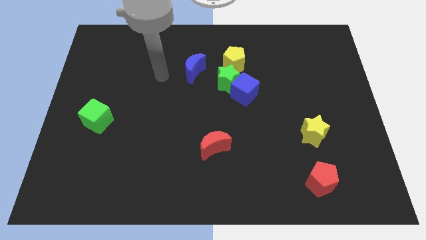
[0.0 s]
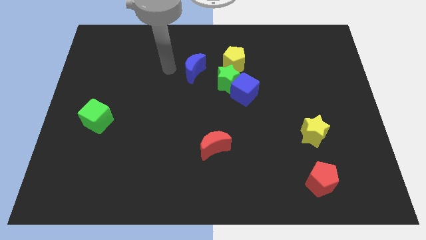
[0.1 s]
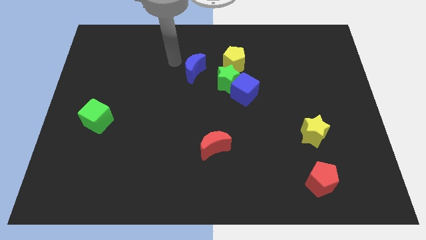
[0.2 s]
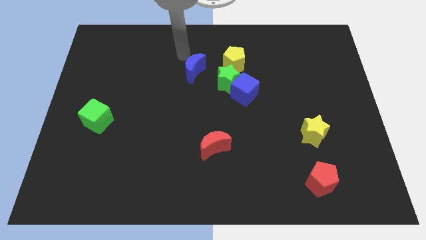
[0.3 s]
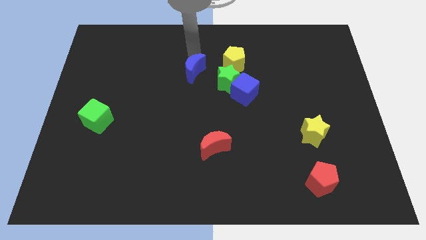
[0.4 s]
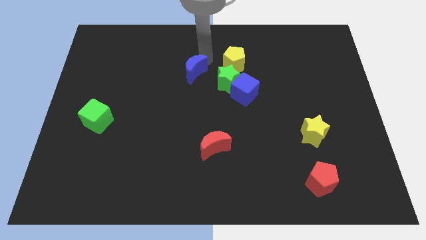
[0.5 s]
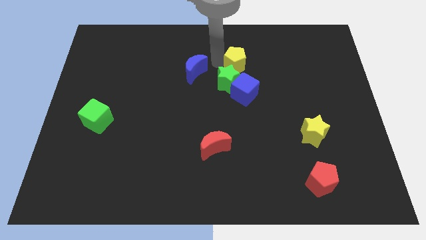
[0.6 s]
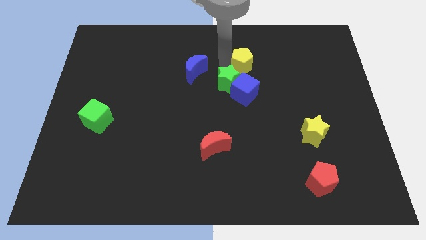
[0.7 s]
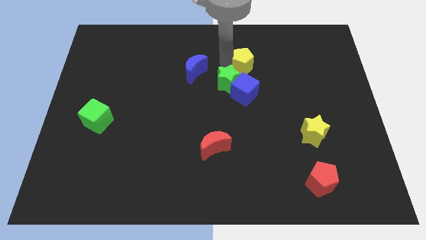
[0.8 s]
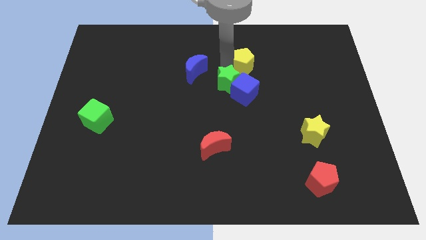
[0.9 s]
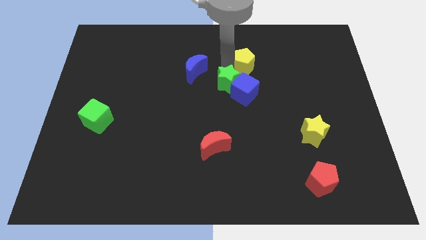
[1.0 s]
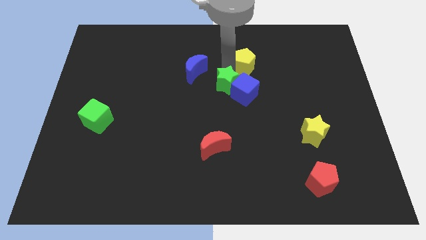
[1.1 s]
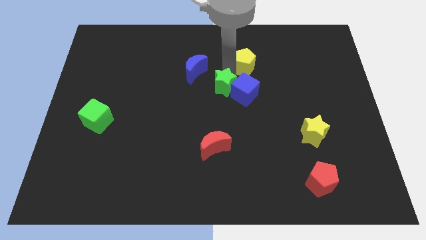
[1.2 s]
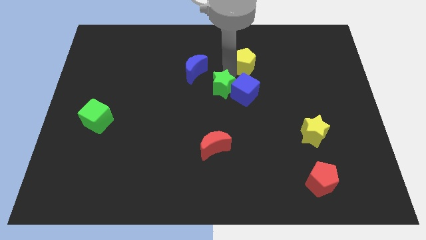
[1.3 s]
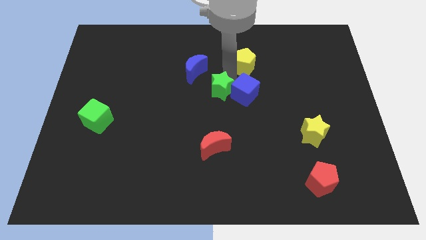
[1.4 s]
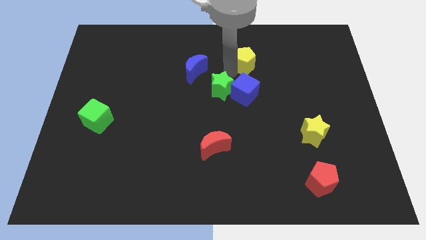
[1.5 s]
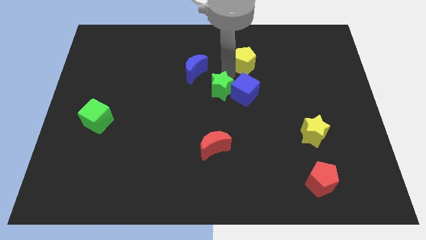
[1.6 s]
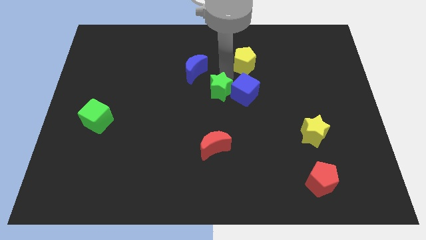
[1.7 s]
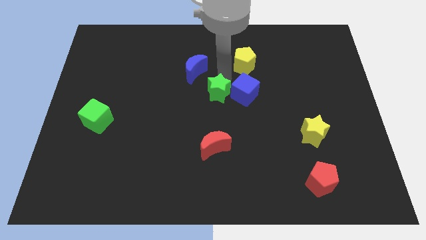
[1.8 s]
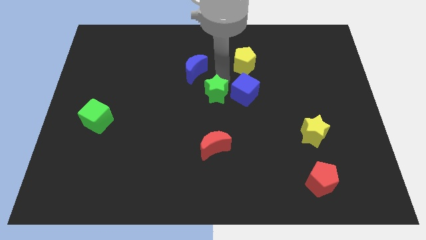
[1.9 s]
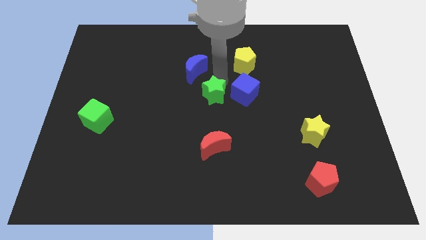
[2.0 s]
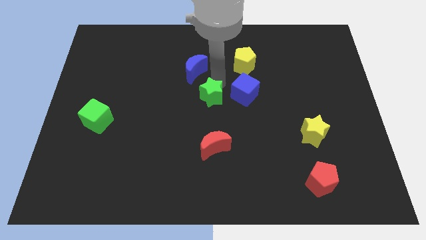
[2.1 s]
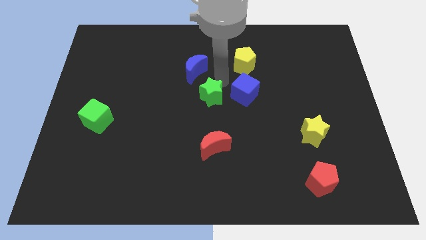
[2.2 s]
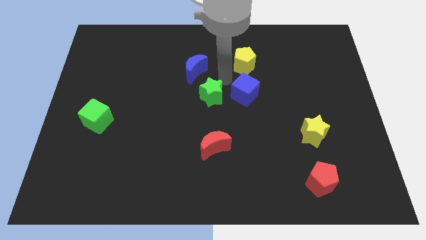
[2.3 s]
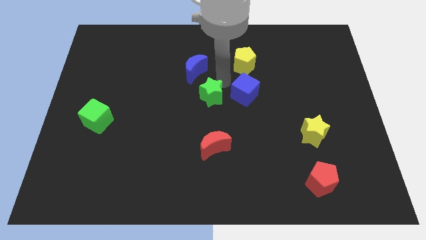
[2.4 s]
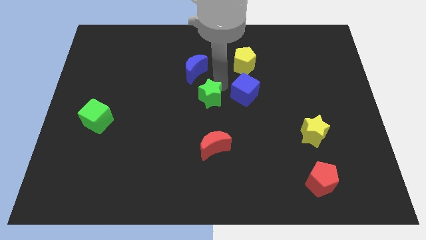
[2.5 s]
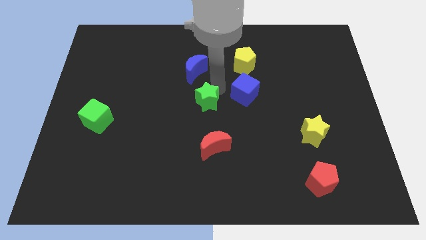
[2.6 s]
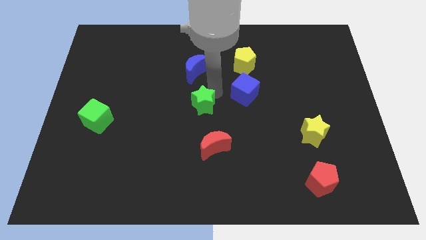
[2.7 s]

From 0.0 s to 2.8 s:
separate the green star from the clump

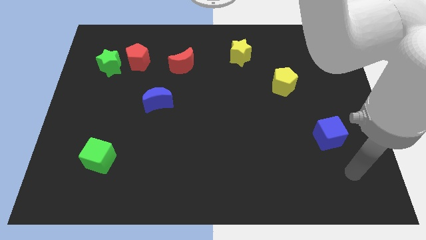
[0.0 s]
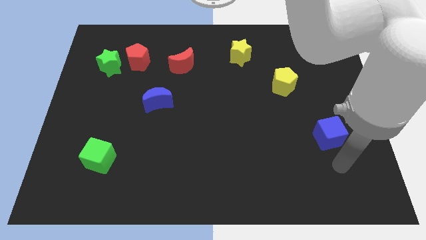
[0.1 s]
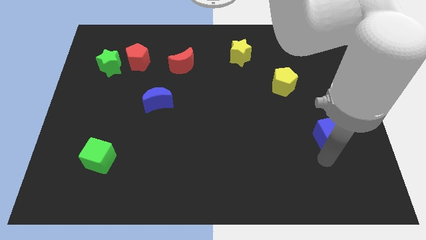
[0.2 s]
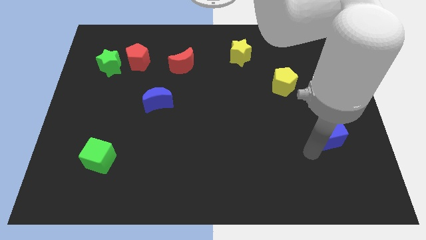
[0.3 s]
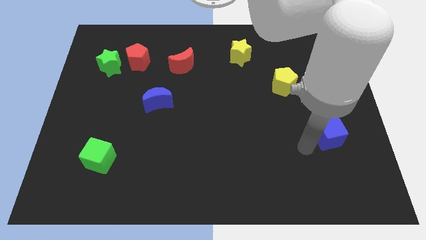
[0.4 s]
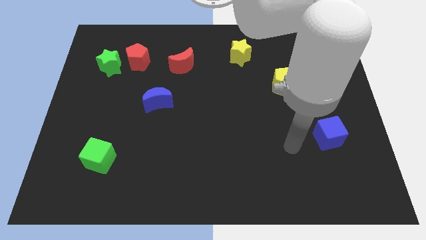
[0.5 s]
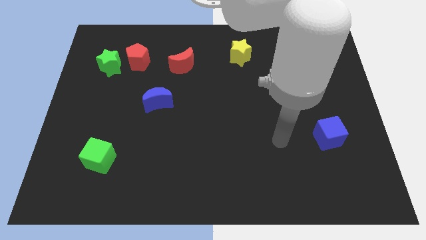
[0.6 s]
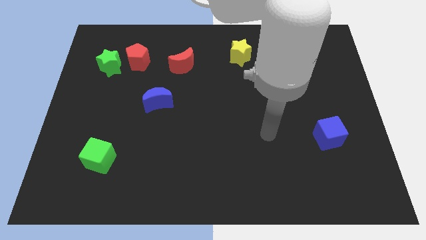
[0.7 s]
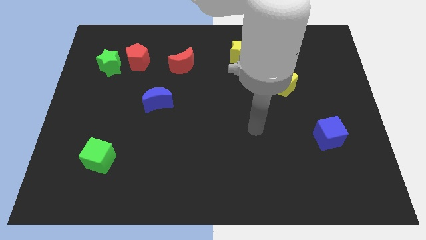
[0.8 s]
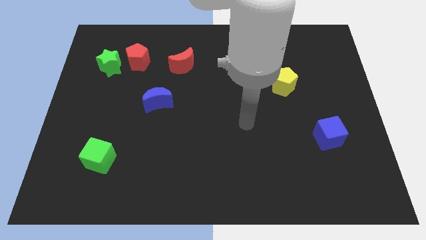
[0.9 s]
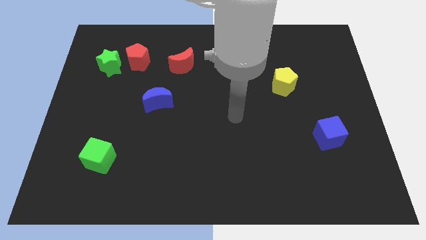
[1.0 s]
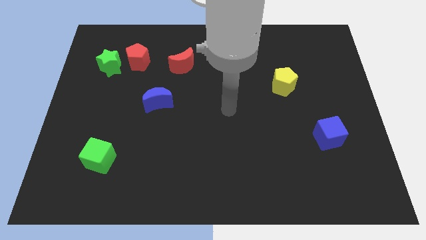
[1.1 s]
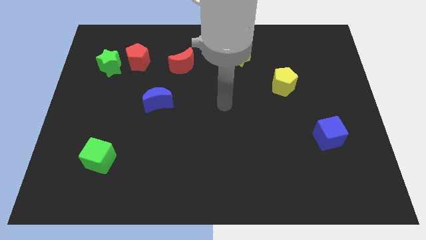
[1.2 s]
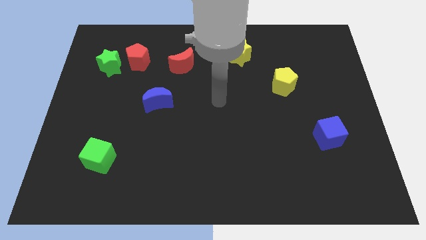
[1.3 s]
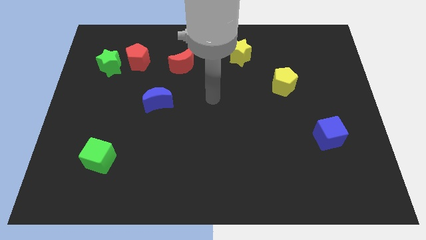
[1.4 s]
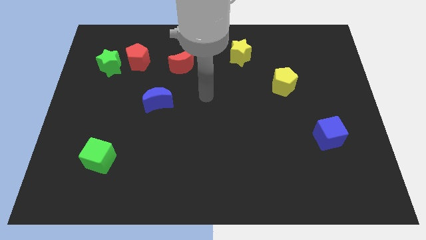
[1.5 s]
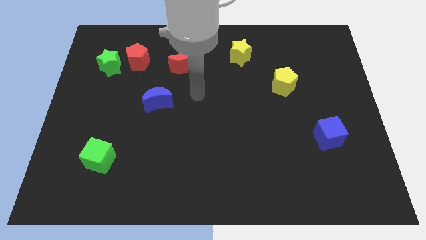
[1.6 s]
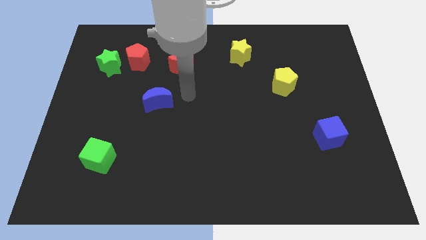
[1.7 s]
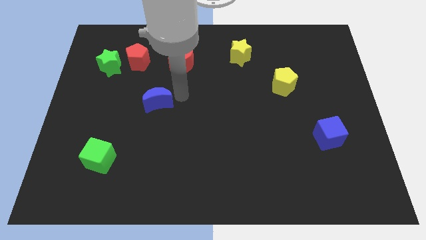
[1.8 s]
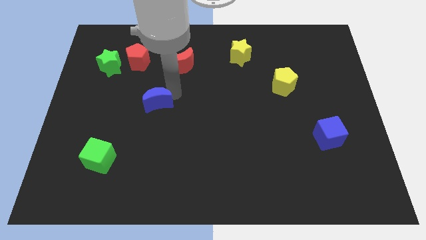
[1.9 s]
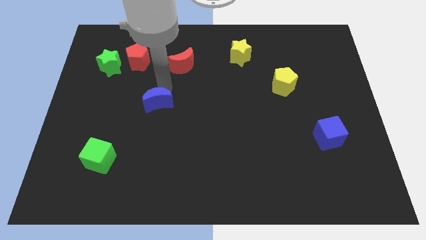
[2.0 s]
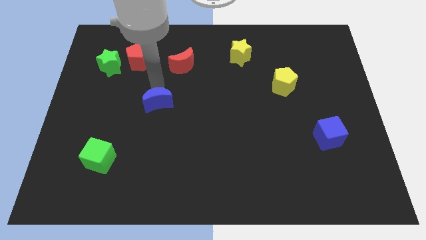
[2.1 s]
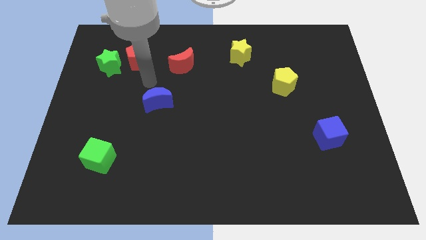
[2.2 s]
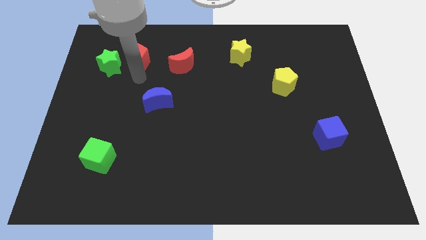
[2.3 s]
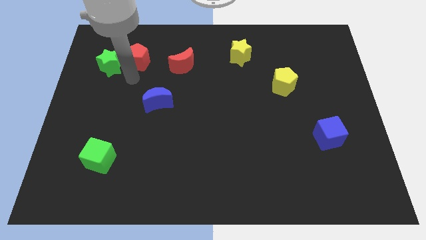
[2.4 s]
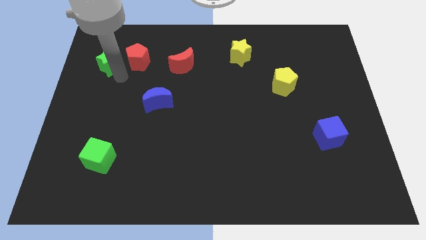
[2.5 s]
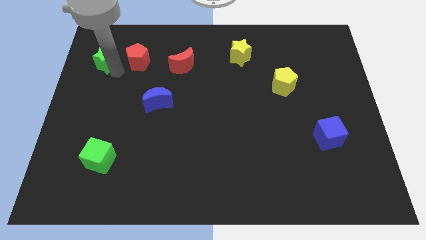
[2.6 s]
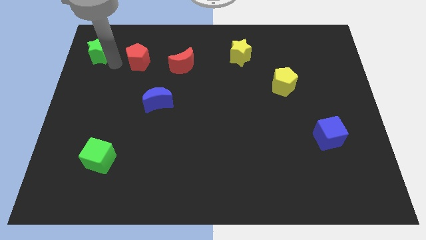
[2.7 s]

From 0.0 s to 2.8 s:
move the red pentagon away from the green star

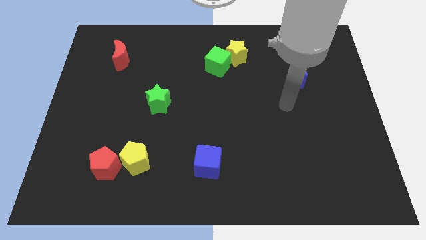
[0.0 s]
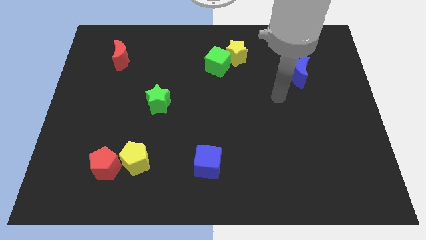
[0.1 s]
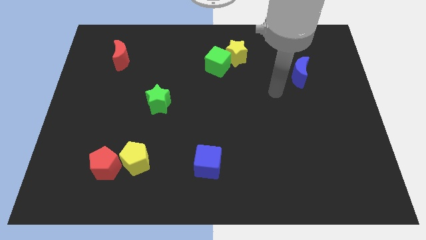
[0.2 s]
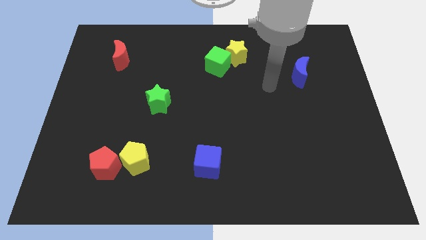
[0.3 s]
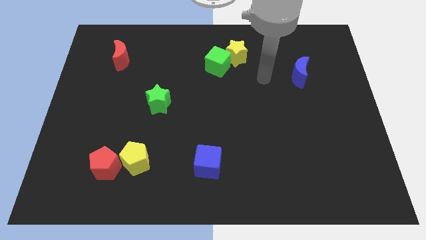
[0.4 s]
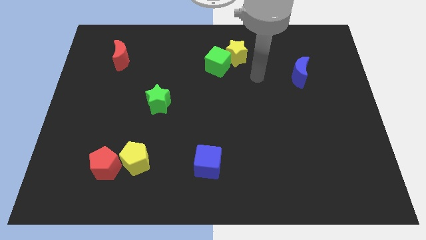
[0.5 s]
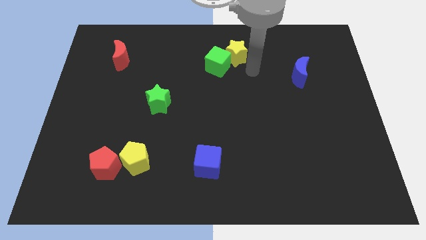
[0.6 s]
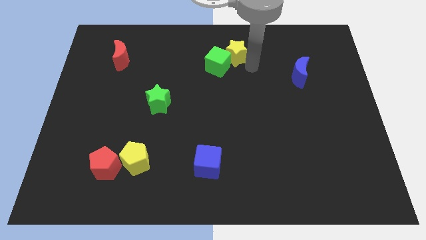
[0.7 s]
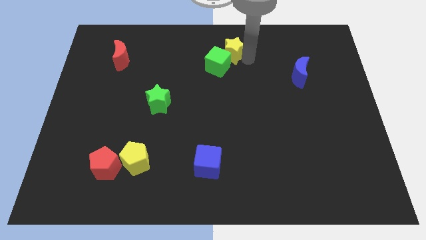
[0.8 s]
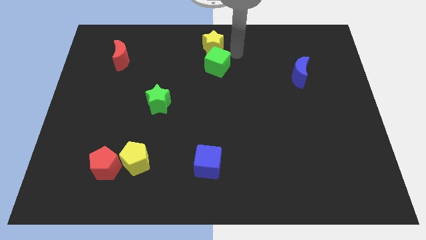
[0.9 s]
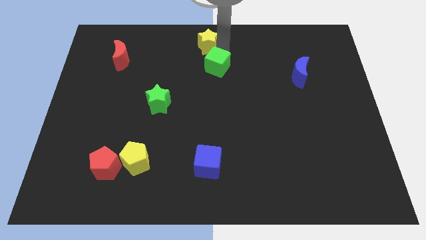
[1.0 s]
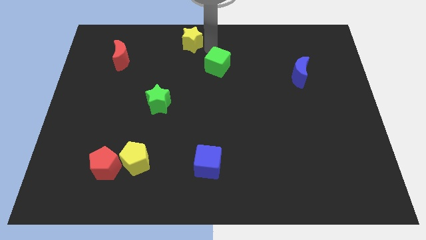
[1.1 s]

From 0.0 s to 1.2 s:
pull the green cube apart from the yellow star

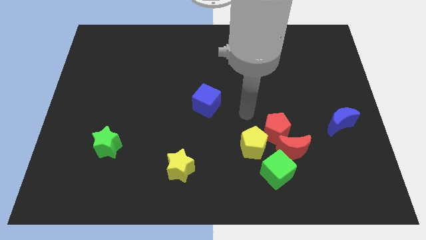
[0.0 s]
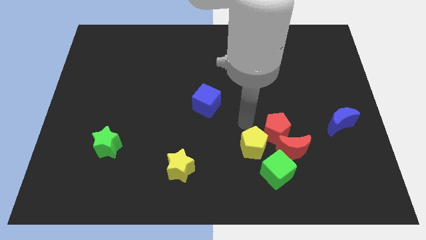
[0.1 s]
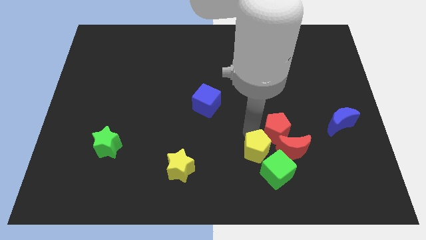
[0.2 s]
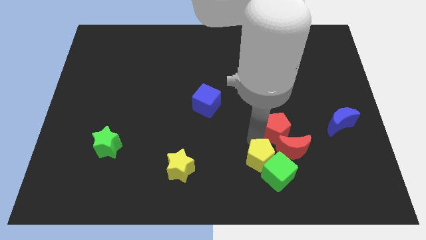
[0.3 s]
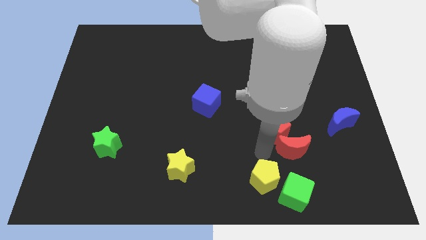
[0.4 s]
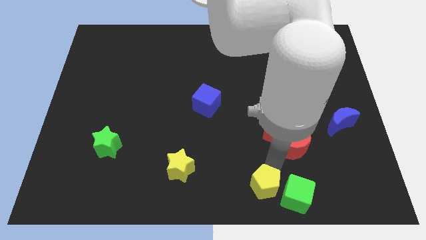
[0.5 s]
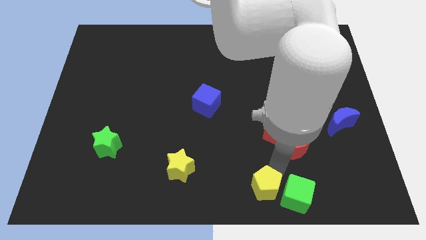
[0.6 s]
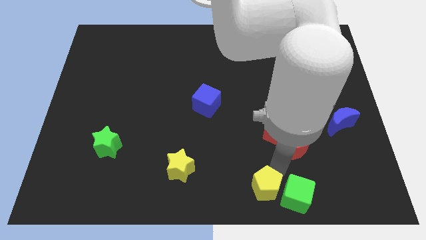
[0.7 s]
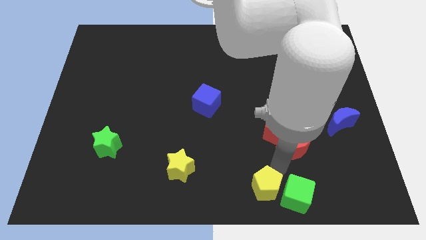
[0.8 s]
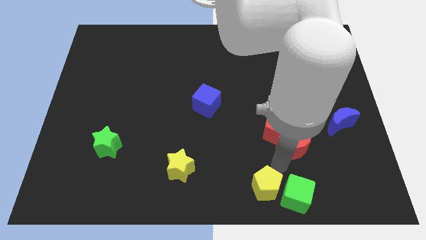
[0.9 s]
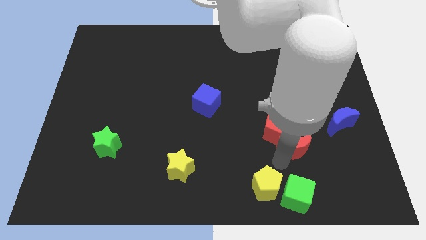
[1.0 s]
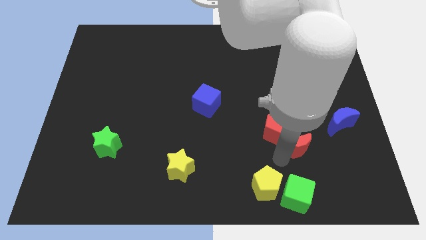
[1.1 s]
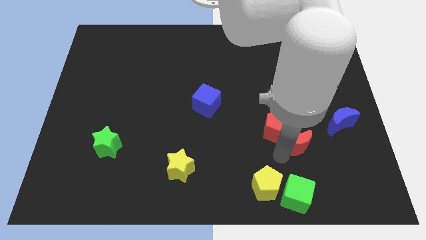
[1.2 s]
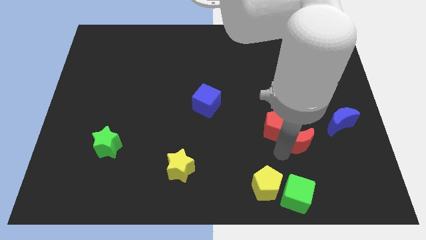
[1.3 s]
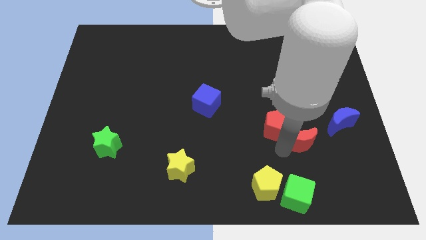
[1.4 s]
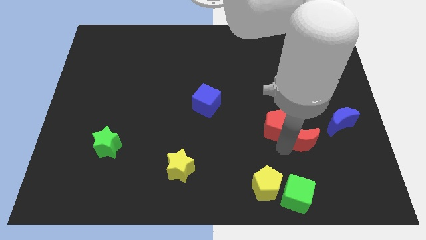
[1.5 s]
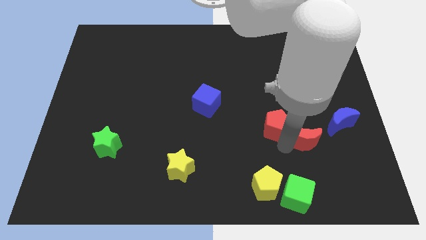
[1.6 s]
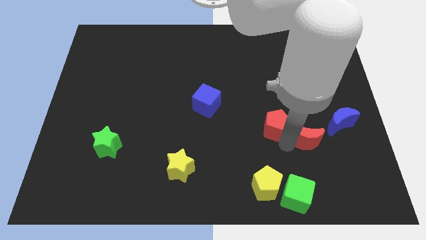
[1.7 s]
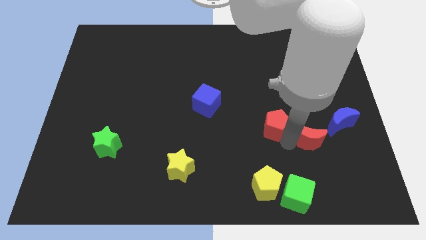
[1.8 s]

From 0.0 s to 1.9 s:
pull the red moon apart from the group

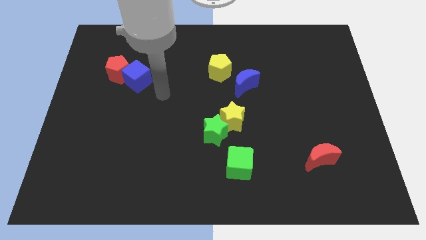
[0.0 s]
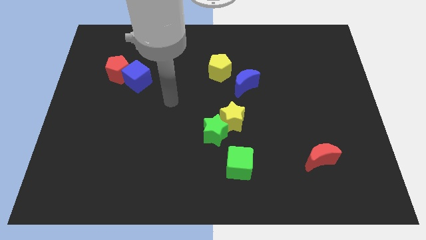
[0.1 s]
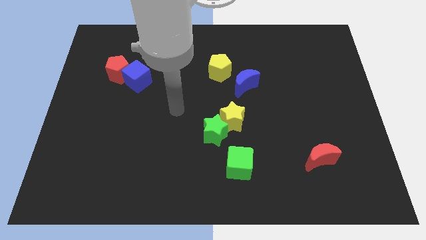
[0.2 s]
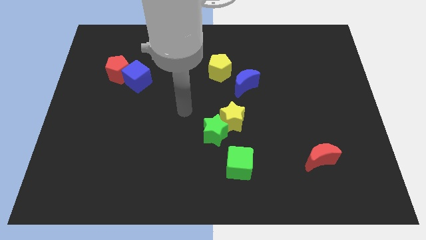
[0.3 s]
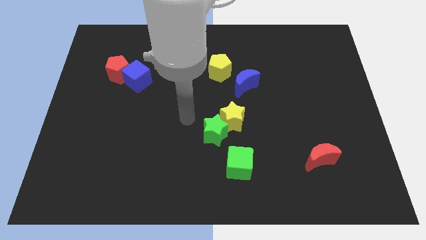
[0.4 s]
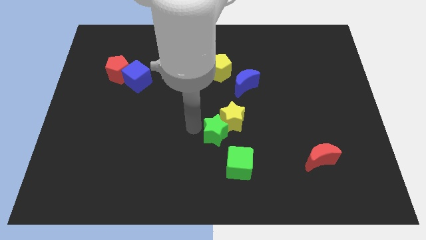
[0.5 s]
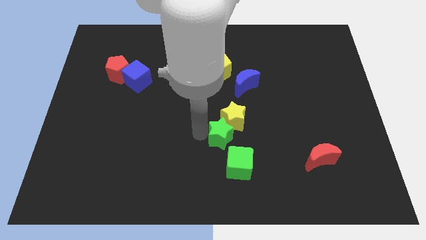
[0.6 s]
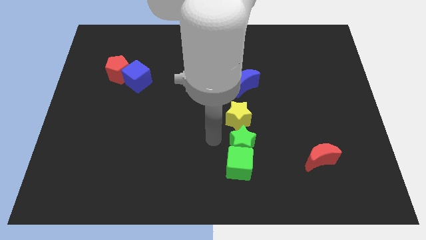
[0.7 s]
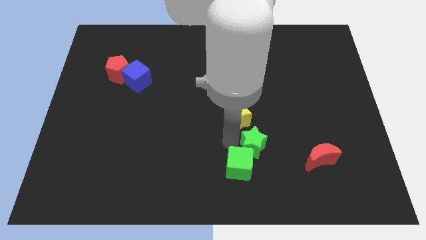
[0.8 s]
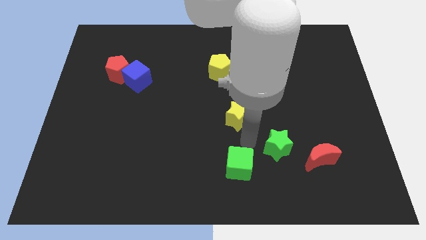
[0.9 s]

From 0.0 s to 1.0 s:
pull the yellow star apart from the green star
